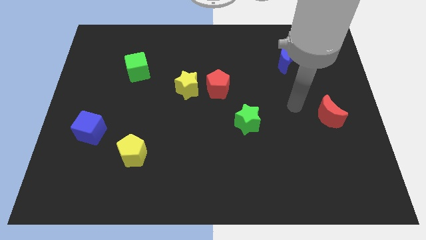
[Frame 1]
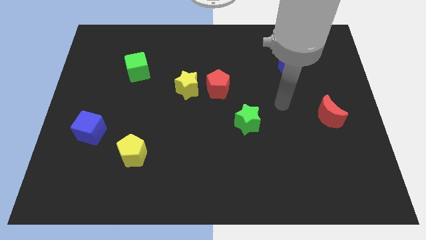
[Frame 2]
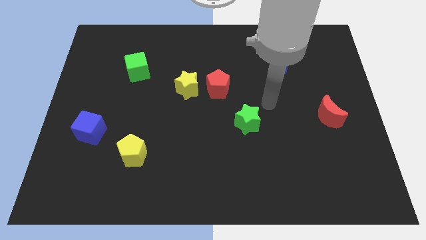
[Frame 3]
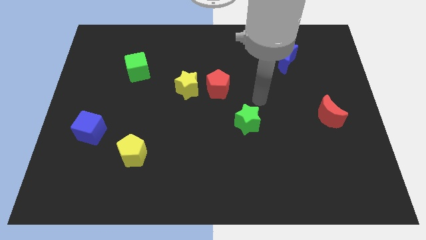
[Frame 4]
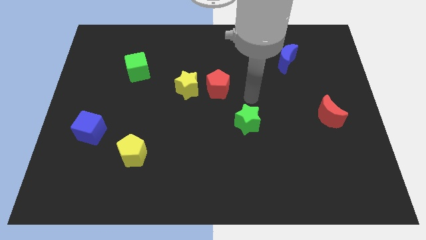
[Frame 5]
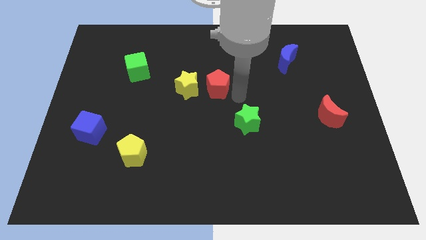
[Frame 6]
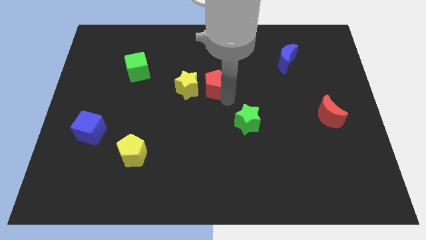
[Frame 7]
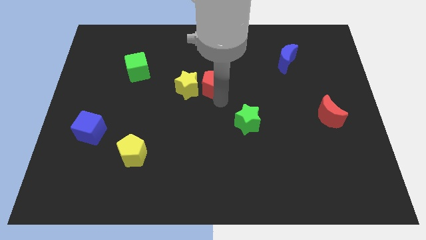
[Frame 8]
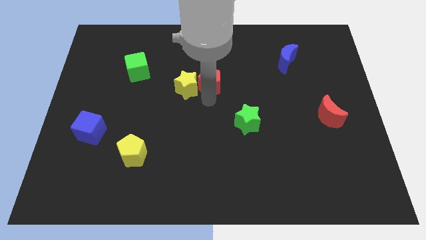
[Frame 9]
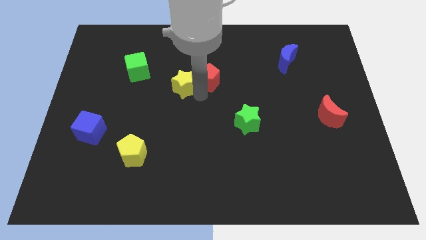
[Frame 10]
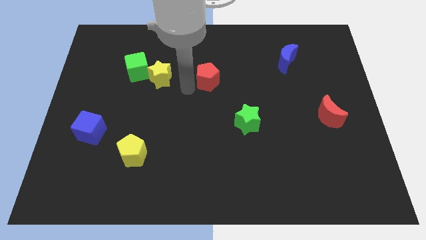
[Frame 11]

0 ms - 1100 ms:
separate the red pentagon from the yellow star

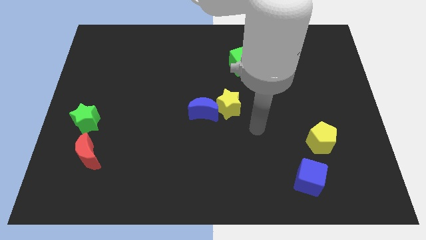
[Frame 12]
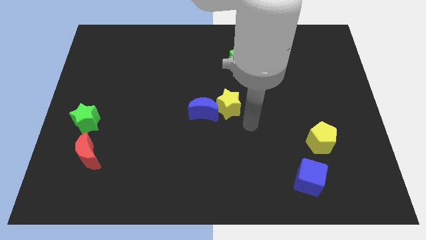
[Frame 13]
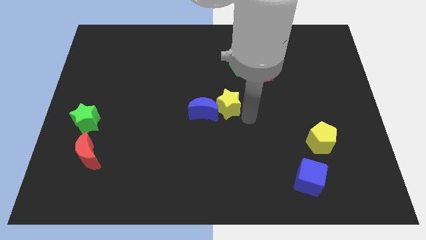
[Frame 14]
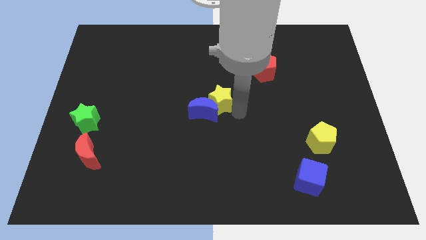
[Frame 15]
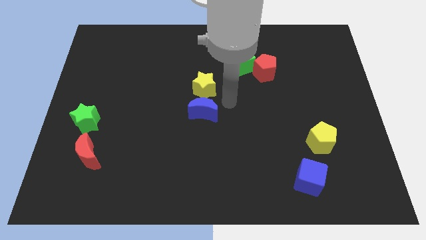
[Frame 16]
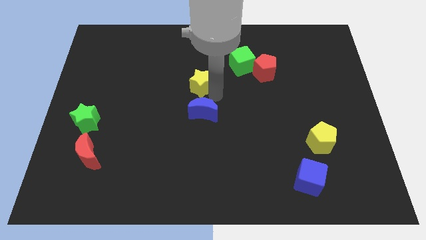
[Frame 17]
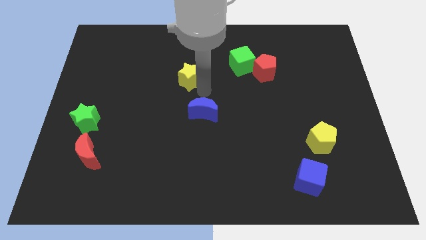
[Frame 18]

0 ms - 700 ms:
pull the blue moon apart from the yellow star

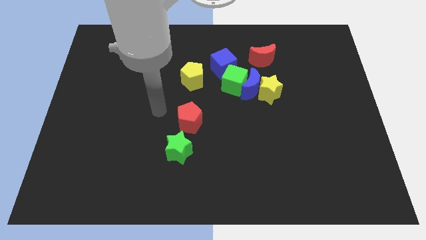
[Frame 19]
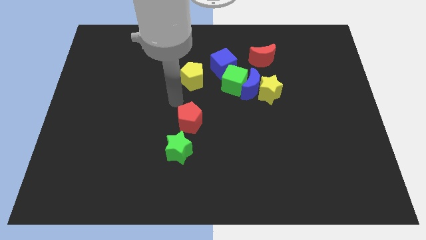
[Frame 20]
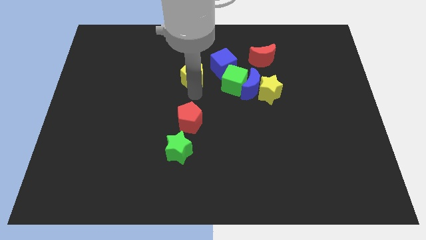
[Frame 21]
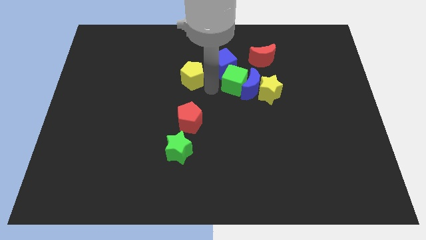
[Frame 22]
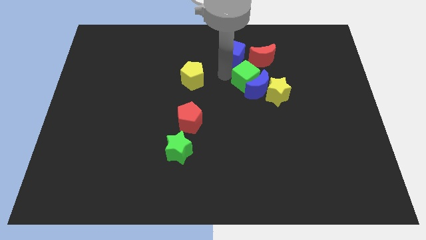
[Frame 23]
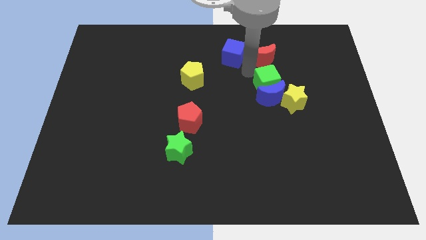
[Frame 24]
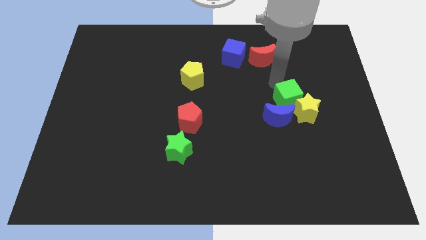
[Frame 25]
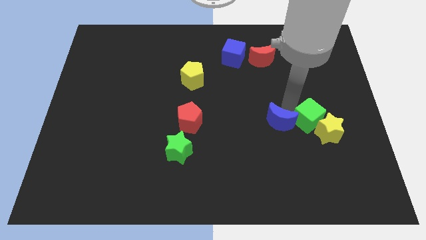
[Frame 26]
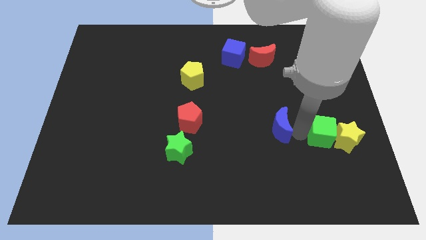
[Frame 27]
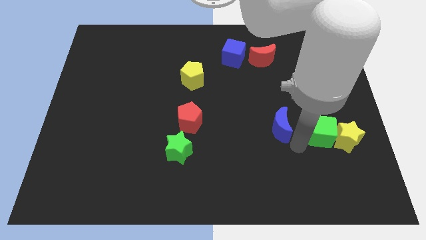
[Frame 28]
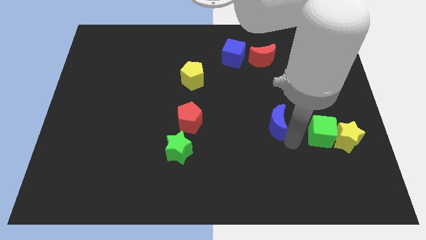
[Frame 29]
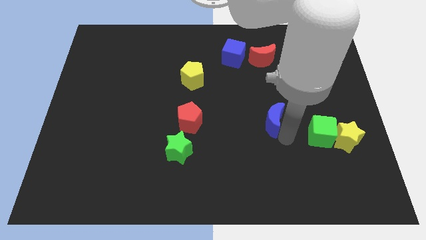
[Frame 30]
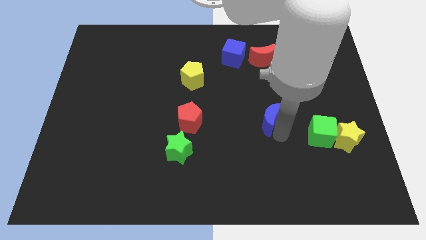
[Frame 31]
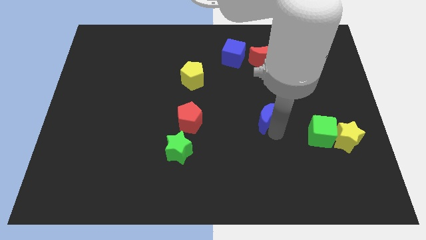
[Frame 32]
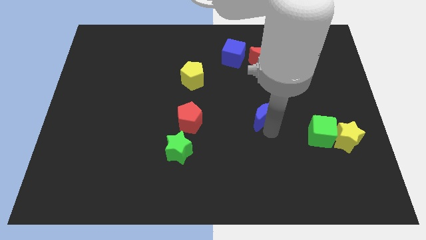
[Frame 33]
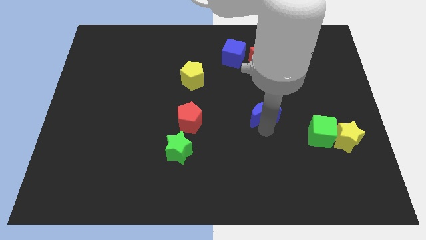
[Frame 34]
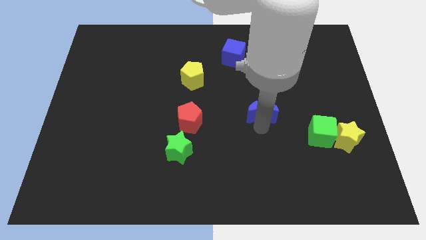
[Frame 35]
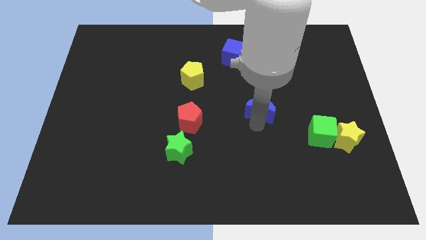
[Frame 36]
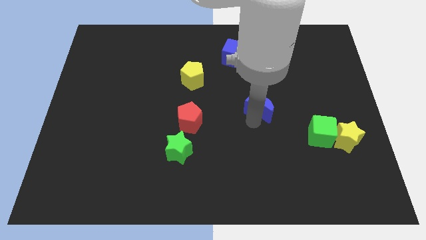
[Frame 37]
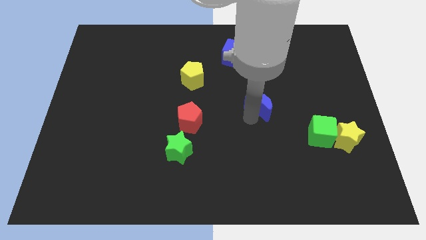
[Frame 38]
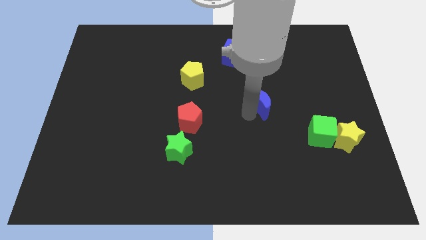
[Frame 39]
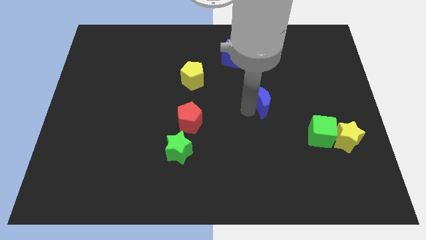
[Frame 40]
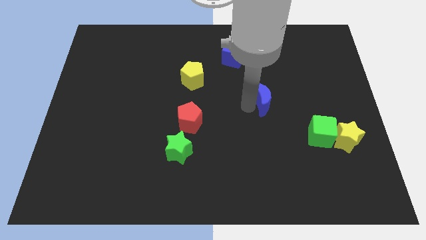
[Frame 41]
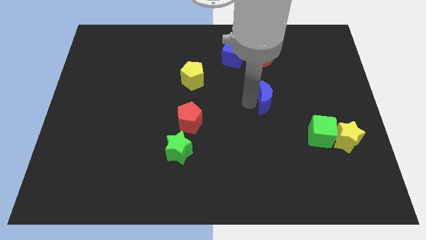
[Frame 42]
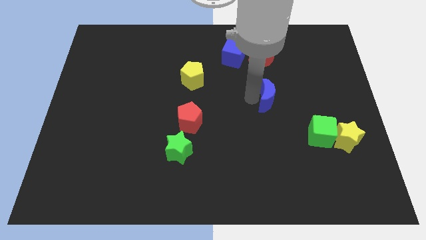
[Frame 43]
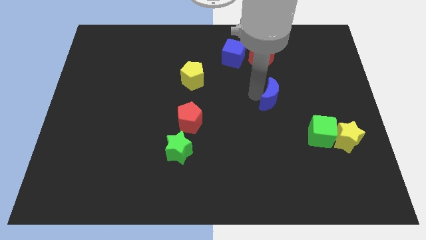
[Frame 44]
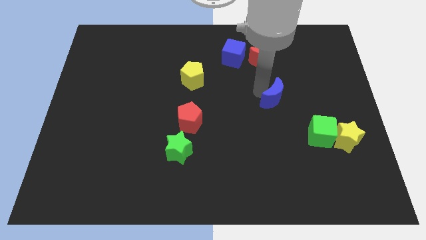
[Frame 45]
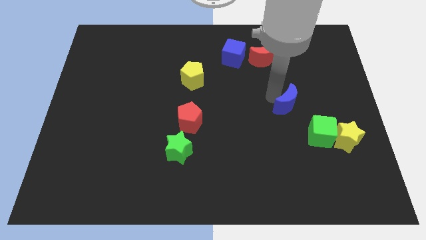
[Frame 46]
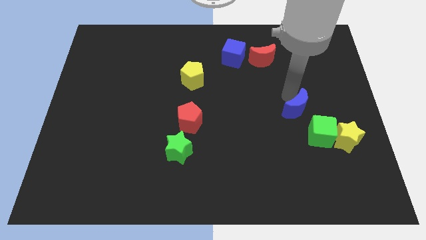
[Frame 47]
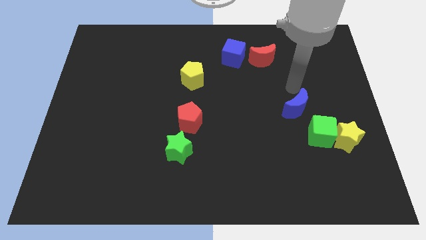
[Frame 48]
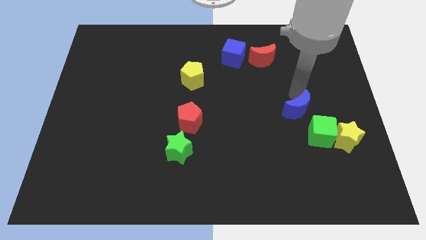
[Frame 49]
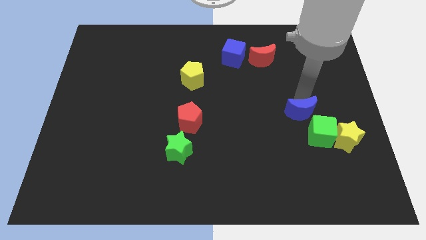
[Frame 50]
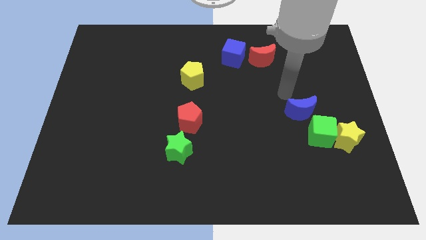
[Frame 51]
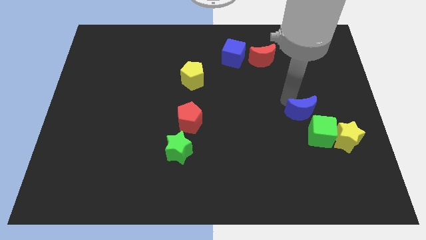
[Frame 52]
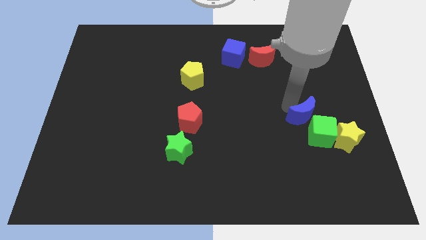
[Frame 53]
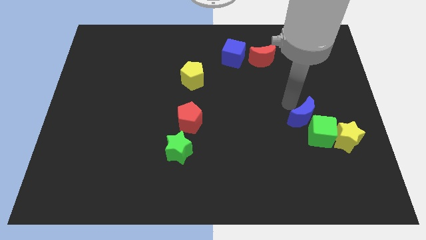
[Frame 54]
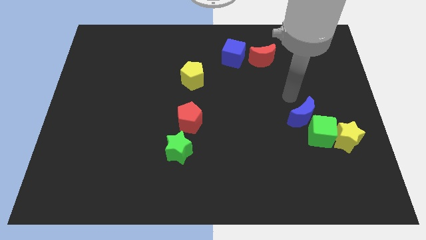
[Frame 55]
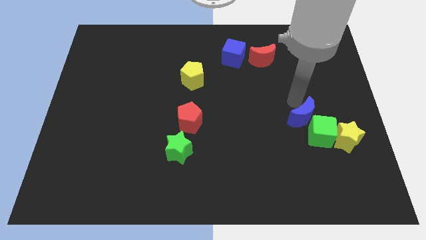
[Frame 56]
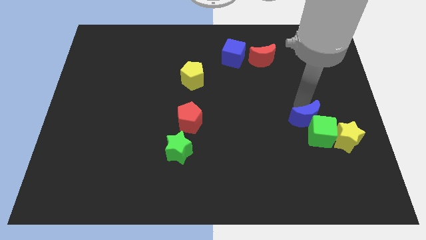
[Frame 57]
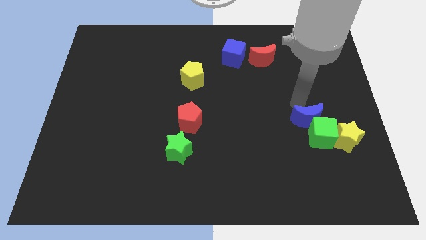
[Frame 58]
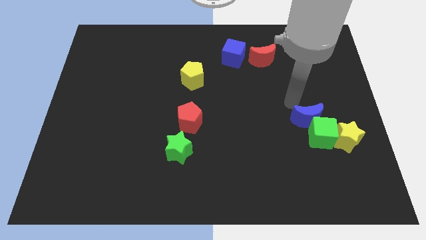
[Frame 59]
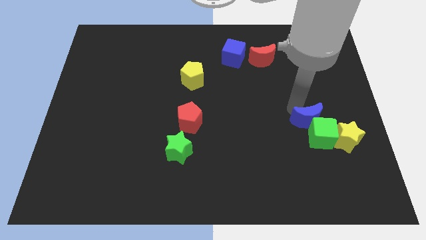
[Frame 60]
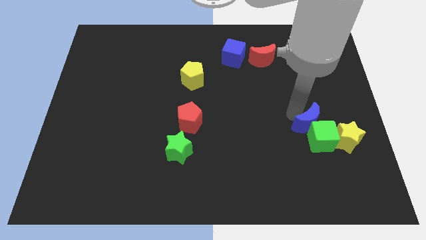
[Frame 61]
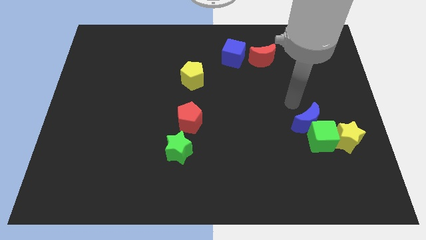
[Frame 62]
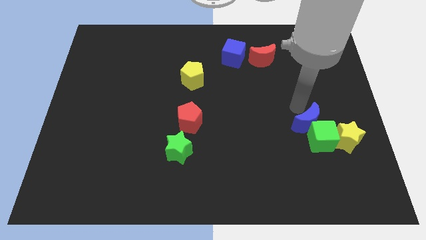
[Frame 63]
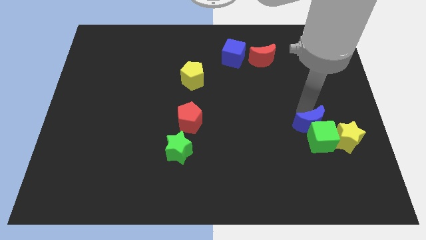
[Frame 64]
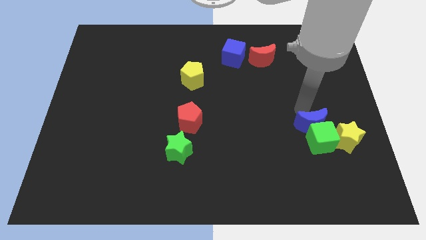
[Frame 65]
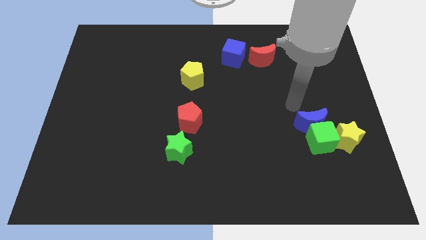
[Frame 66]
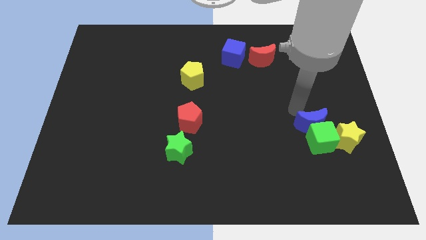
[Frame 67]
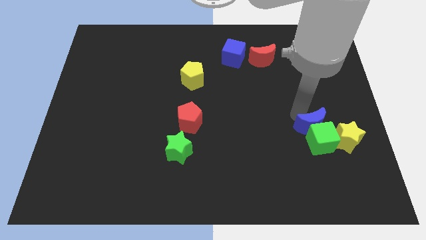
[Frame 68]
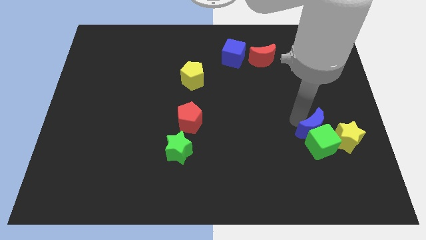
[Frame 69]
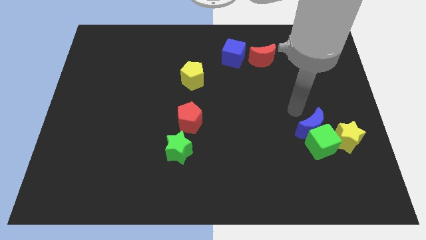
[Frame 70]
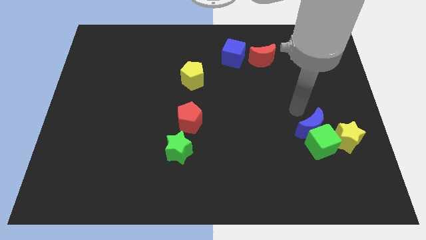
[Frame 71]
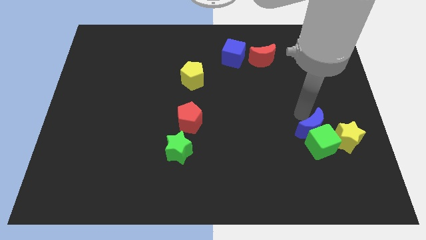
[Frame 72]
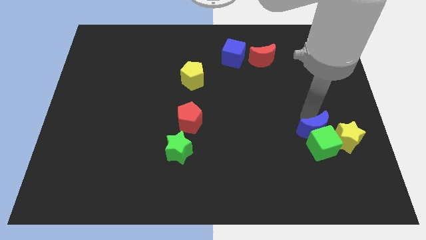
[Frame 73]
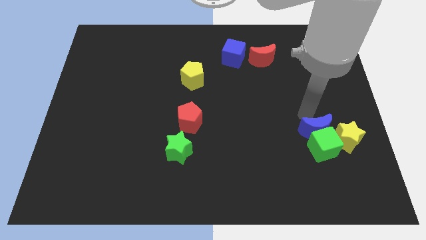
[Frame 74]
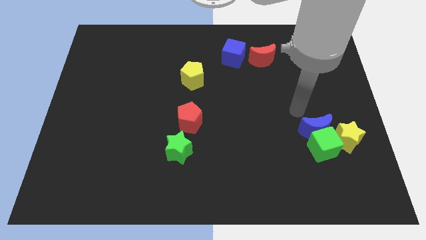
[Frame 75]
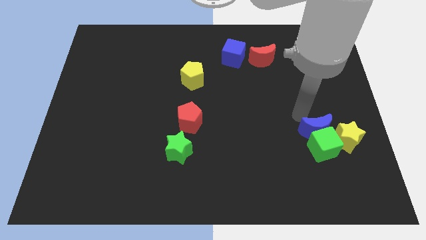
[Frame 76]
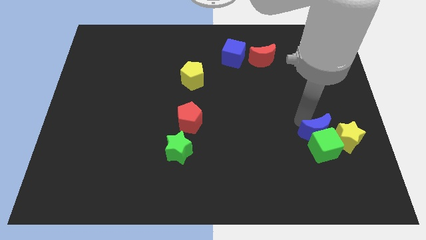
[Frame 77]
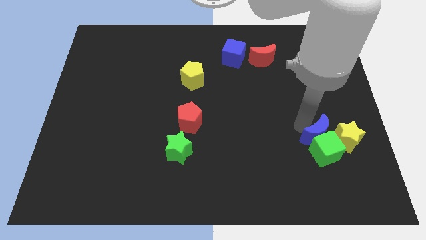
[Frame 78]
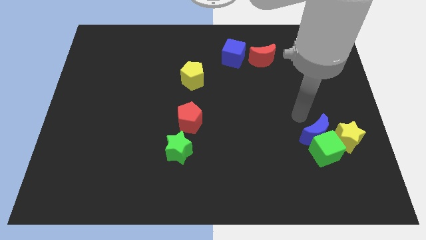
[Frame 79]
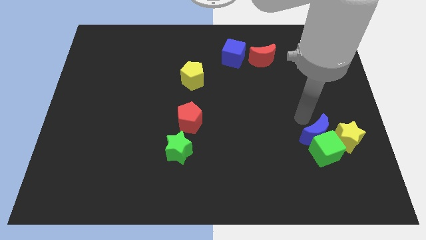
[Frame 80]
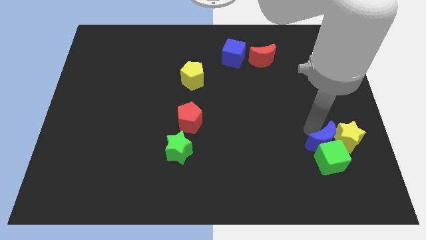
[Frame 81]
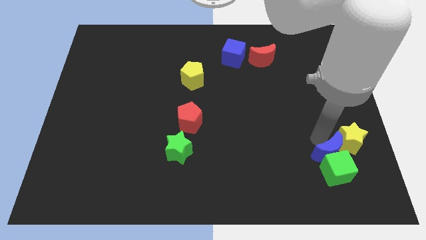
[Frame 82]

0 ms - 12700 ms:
separate the blue moon from the green cube, yellow star, and blue cube

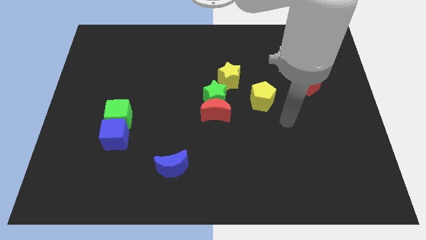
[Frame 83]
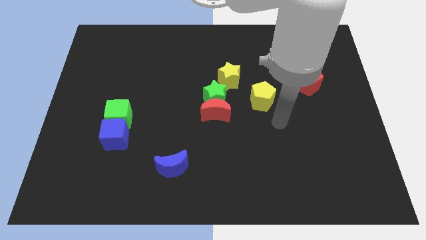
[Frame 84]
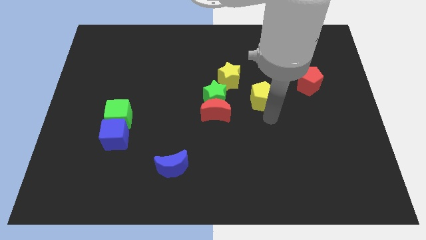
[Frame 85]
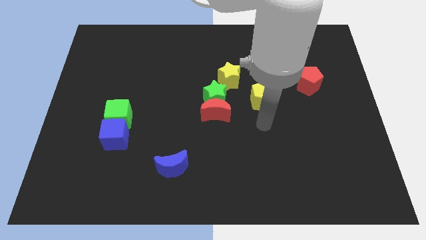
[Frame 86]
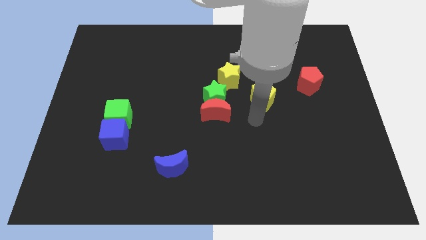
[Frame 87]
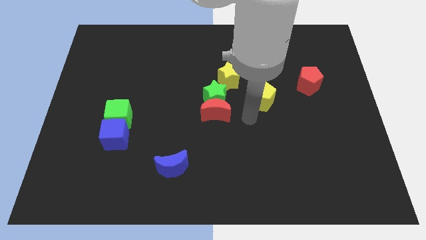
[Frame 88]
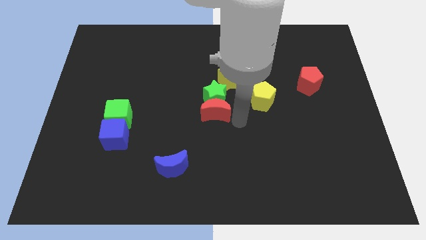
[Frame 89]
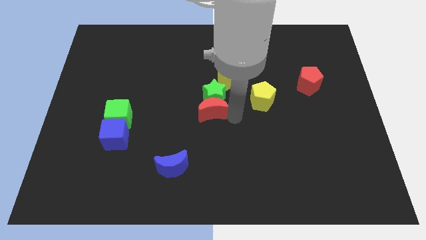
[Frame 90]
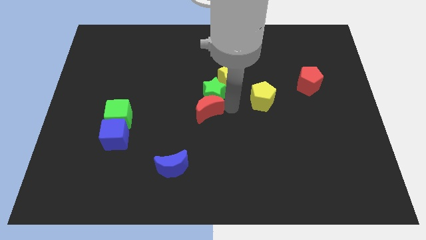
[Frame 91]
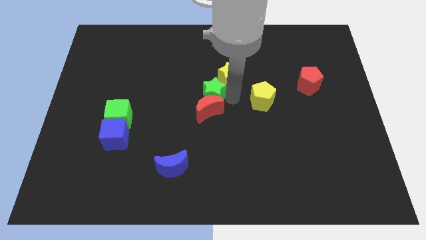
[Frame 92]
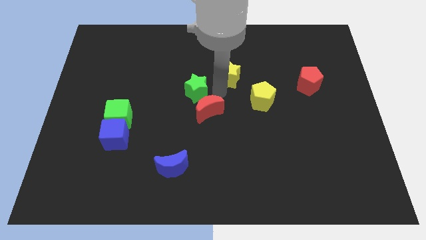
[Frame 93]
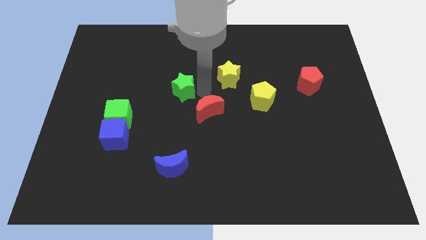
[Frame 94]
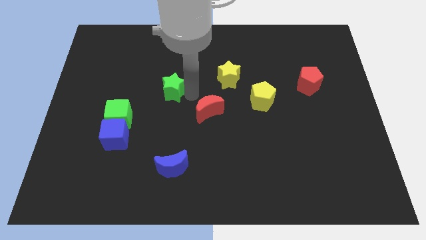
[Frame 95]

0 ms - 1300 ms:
pull the red moon apart from the green star
